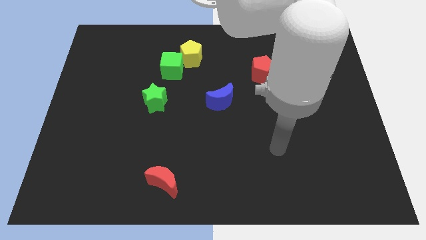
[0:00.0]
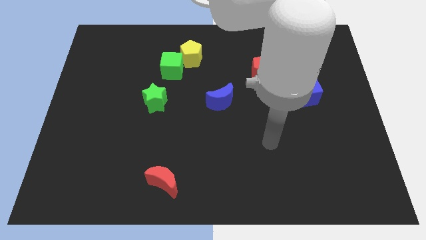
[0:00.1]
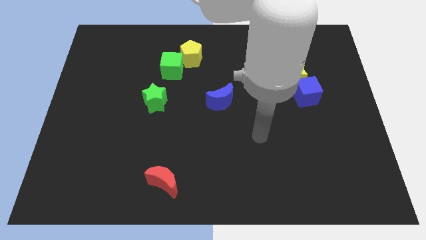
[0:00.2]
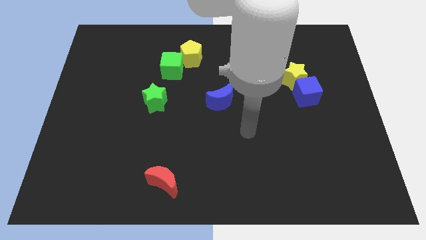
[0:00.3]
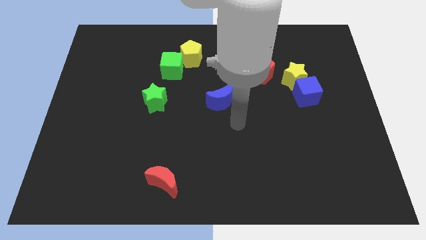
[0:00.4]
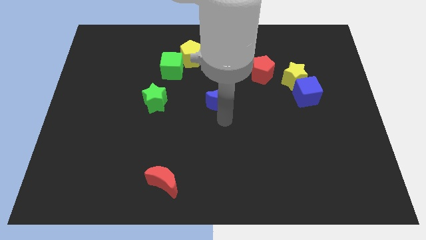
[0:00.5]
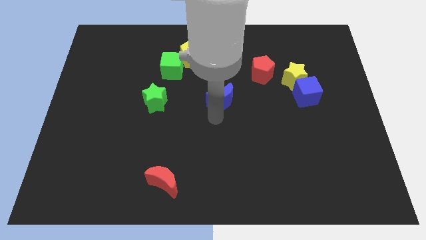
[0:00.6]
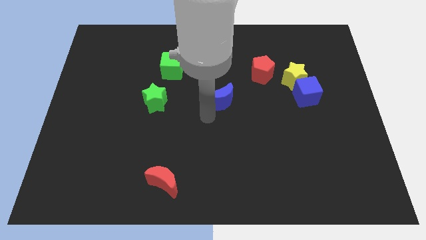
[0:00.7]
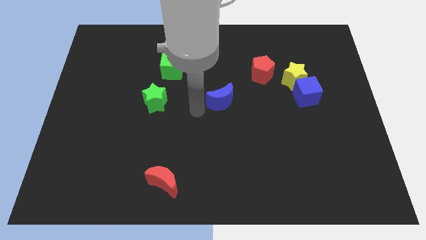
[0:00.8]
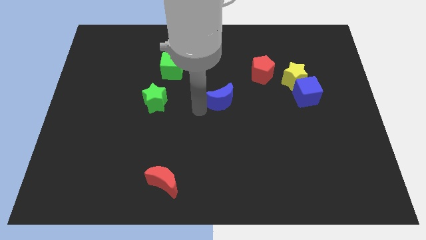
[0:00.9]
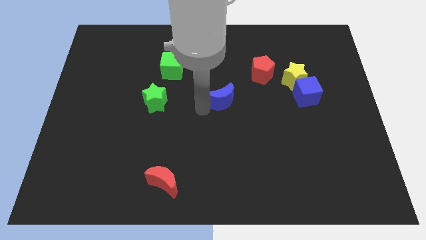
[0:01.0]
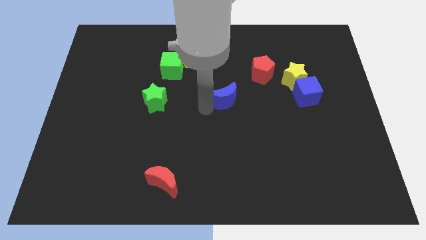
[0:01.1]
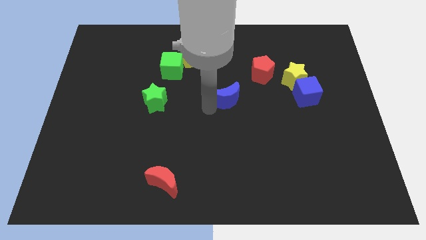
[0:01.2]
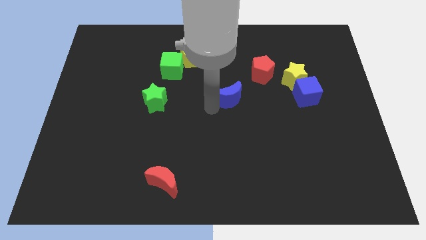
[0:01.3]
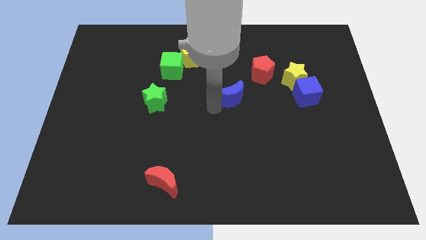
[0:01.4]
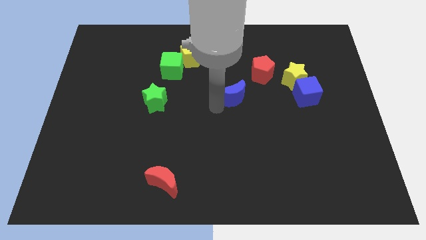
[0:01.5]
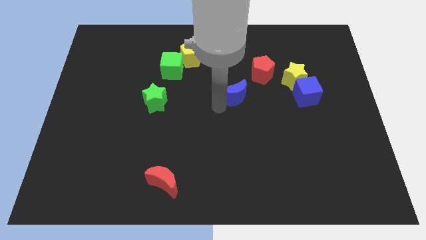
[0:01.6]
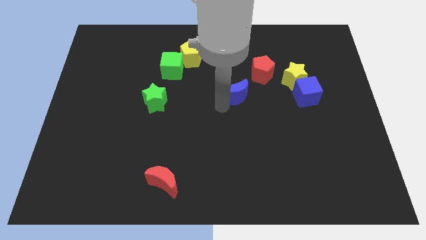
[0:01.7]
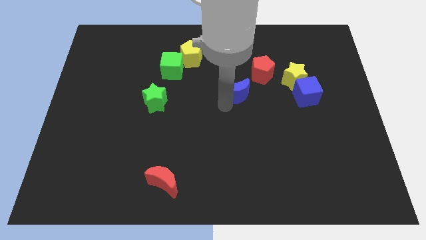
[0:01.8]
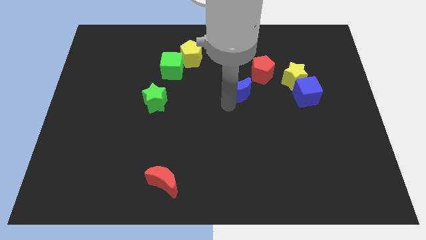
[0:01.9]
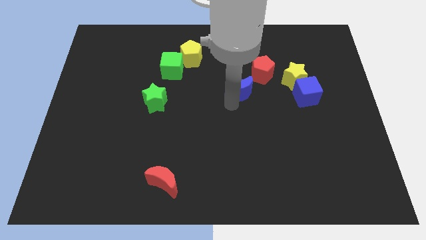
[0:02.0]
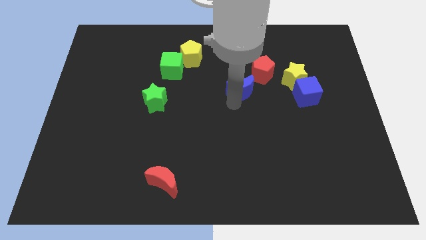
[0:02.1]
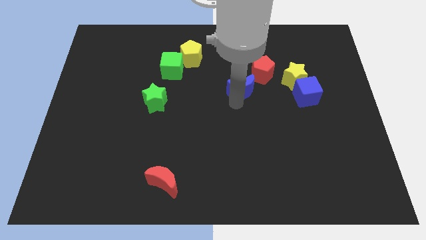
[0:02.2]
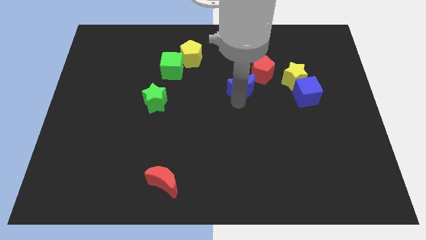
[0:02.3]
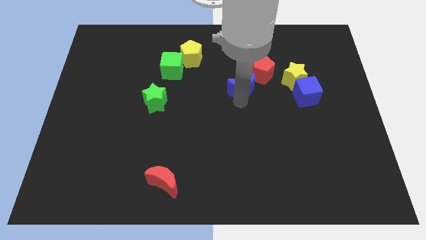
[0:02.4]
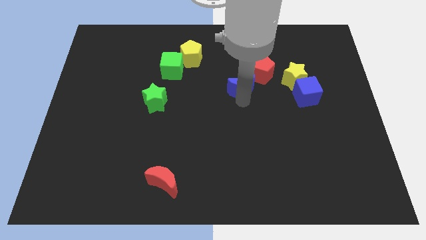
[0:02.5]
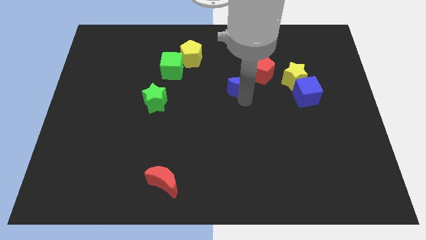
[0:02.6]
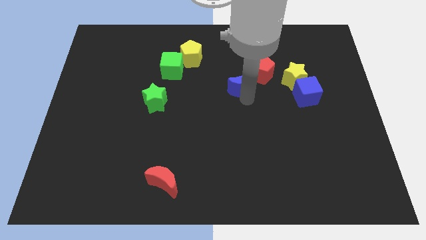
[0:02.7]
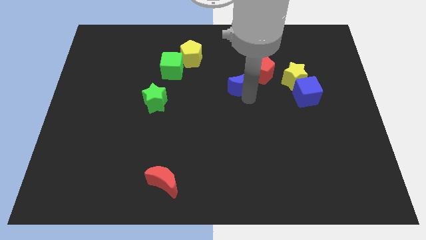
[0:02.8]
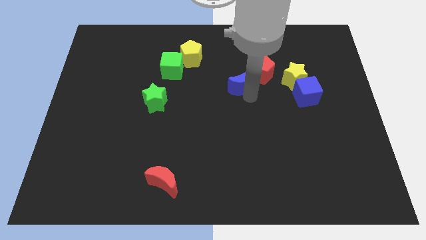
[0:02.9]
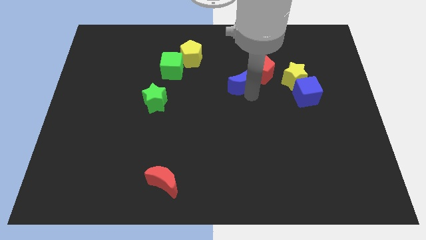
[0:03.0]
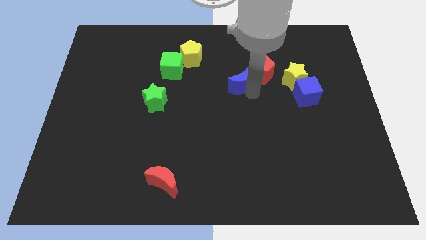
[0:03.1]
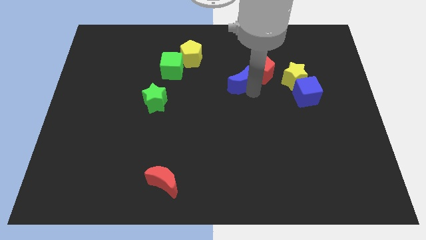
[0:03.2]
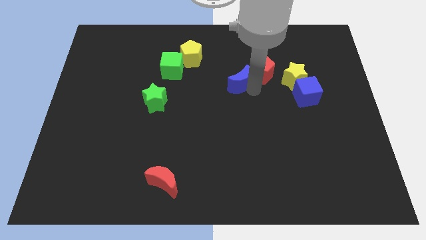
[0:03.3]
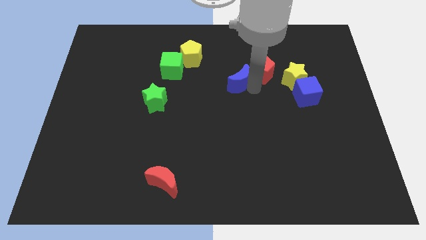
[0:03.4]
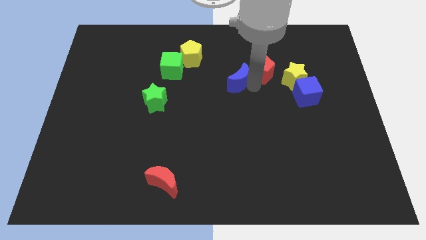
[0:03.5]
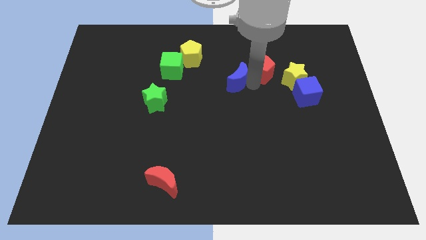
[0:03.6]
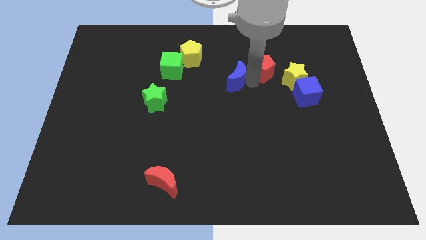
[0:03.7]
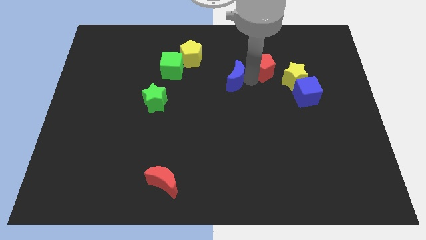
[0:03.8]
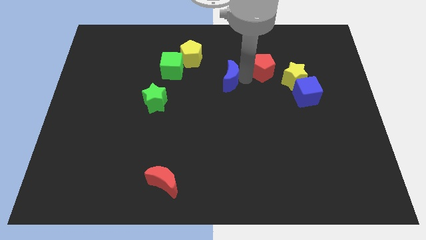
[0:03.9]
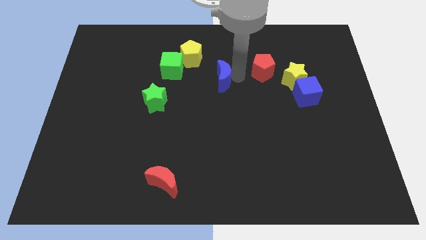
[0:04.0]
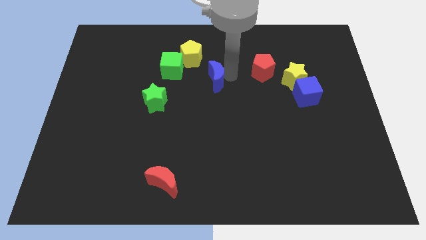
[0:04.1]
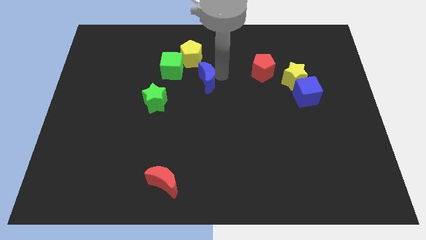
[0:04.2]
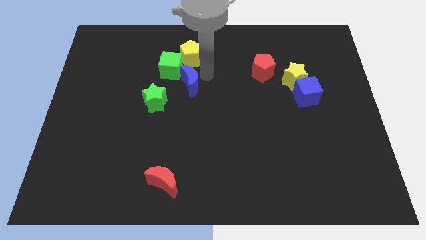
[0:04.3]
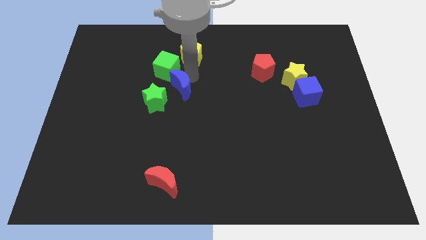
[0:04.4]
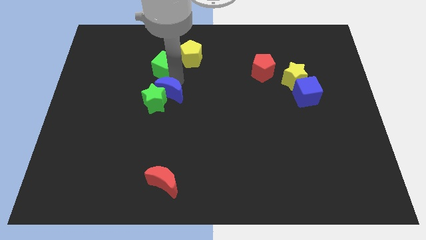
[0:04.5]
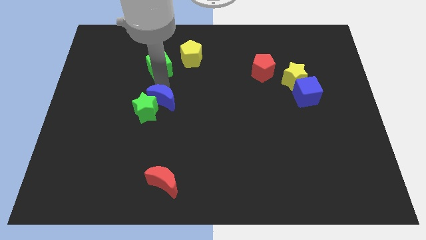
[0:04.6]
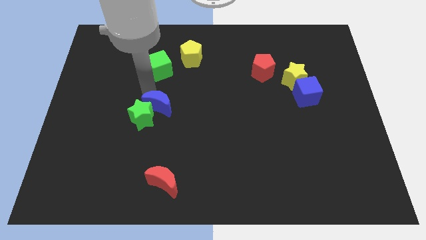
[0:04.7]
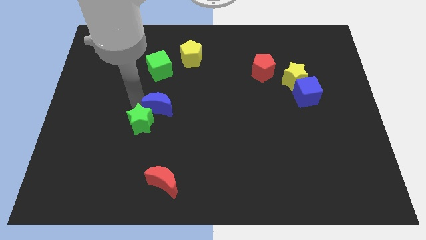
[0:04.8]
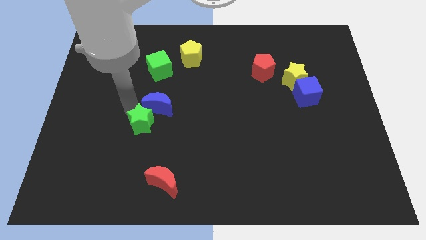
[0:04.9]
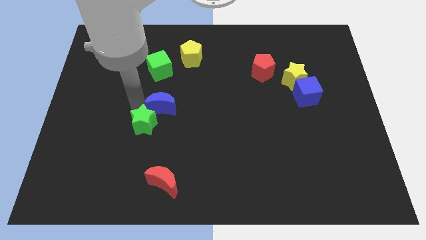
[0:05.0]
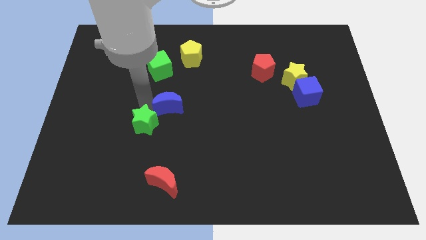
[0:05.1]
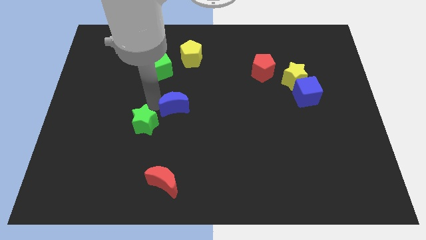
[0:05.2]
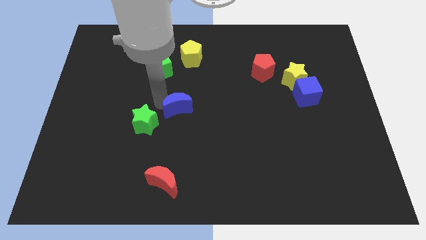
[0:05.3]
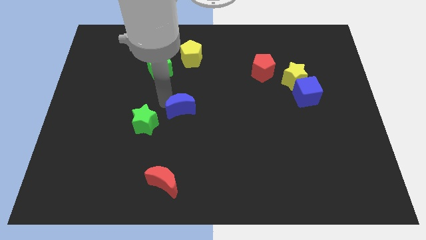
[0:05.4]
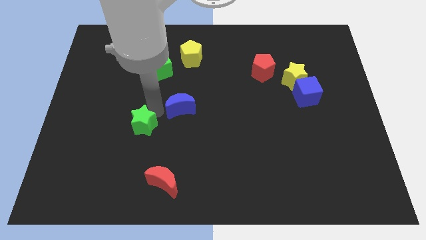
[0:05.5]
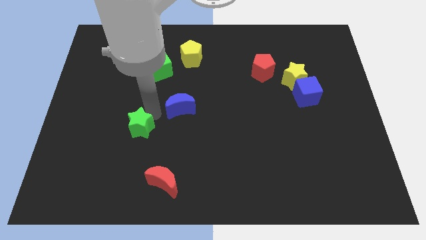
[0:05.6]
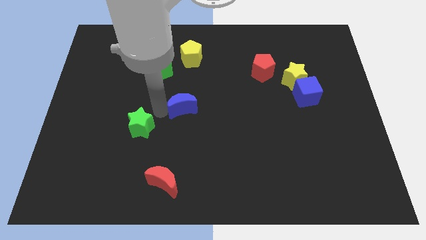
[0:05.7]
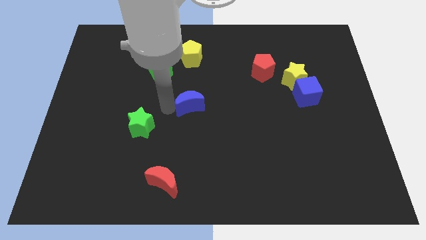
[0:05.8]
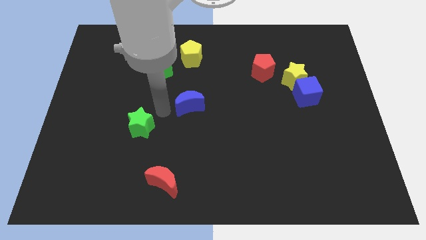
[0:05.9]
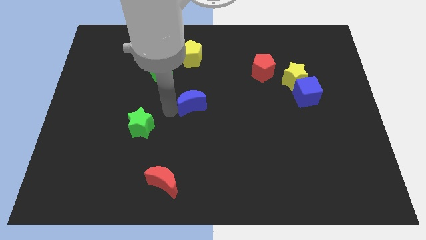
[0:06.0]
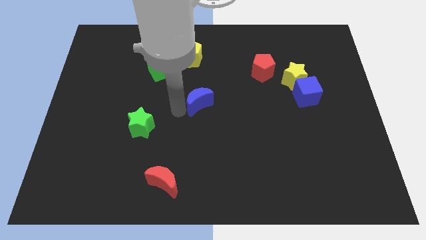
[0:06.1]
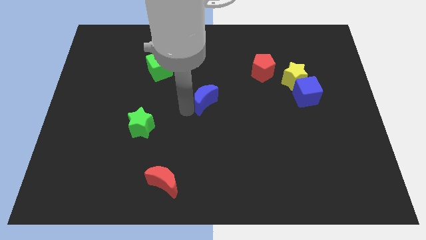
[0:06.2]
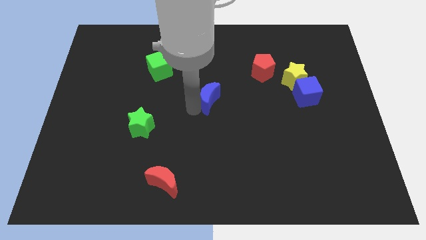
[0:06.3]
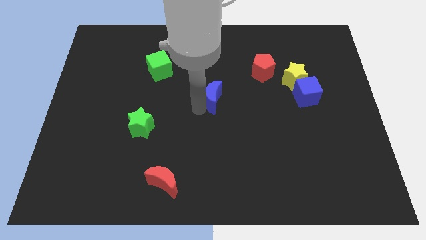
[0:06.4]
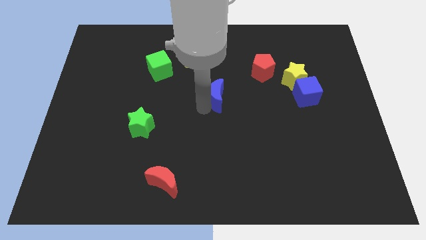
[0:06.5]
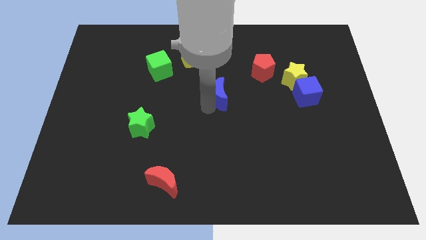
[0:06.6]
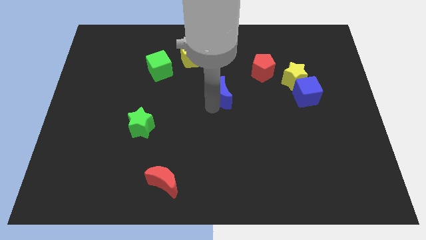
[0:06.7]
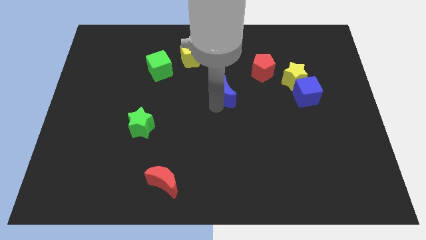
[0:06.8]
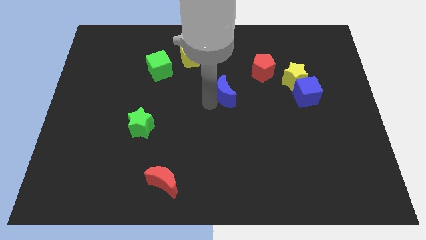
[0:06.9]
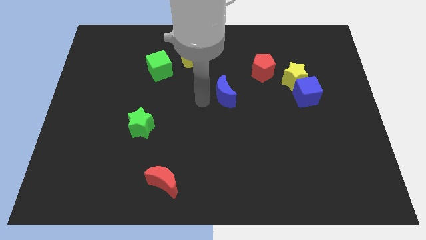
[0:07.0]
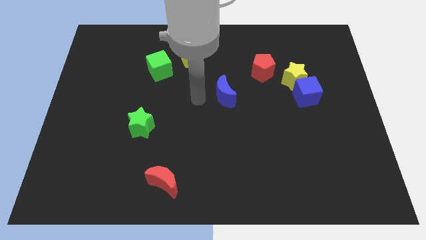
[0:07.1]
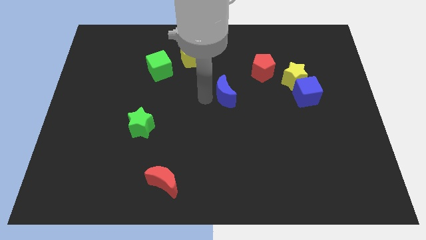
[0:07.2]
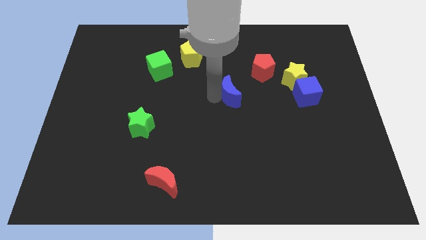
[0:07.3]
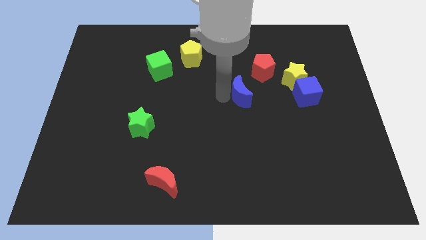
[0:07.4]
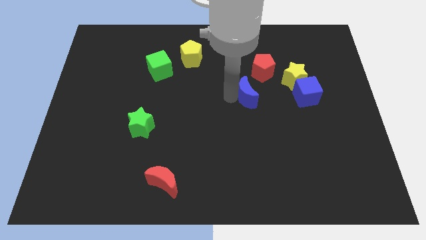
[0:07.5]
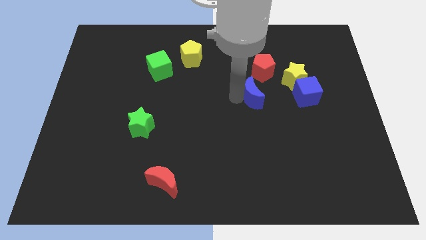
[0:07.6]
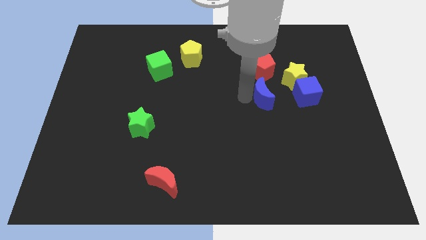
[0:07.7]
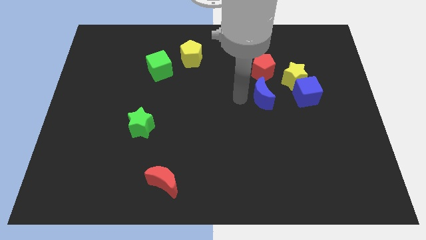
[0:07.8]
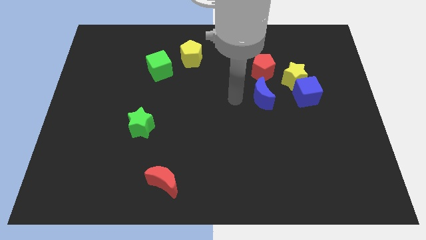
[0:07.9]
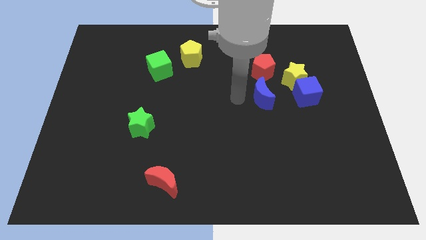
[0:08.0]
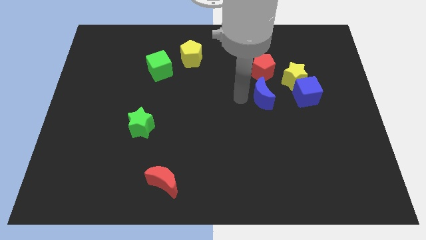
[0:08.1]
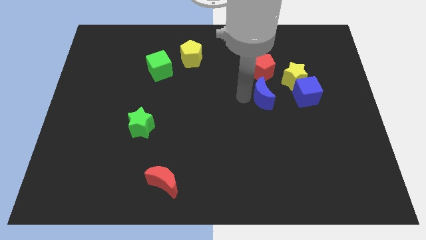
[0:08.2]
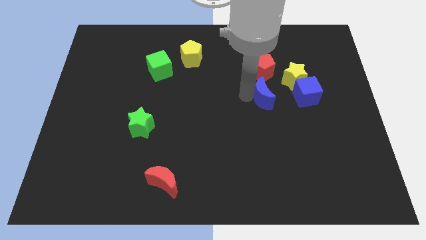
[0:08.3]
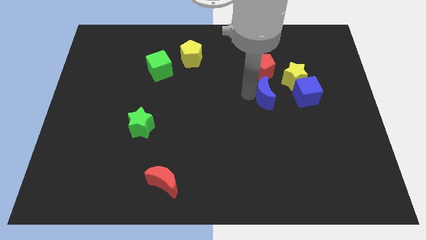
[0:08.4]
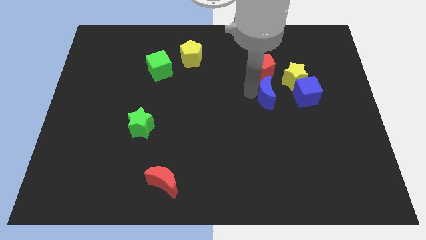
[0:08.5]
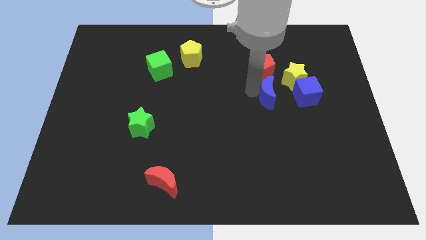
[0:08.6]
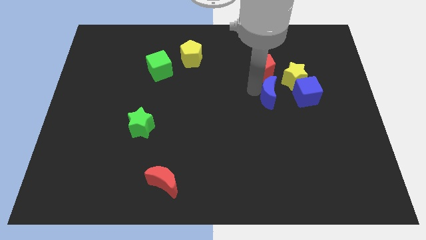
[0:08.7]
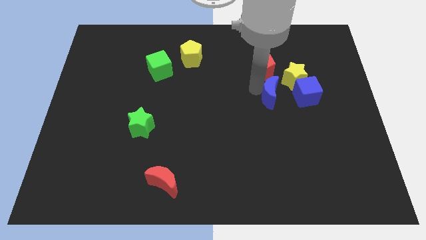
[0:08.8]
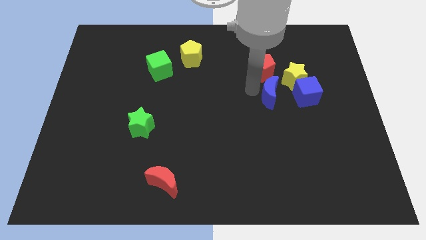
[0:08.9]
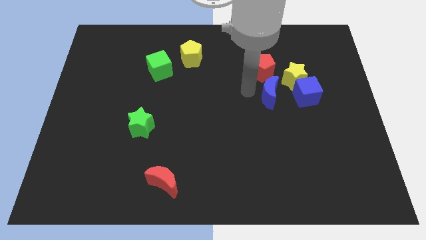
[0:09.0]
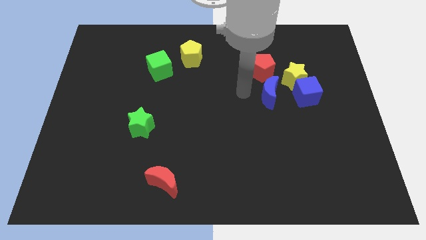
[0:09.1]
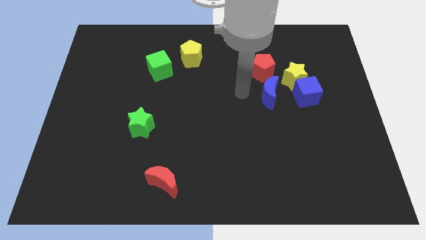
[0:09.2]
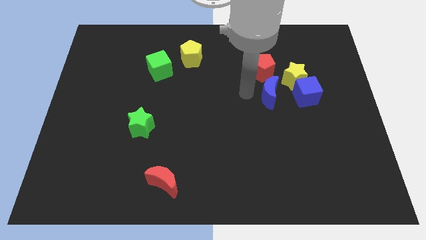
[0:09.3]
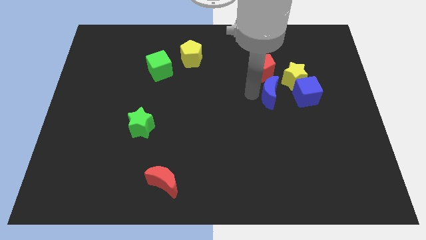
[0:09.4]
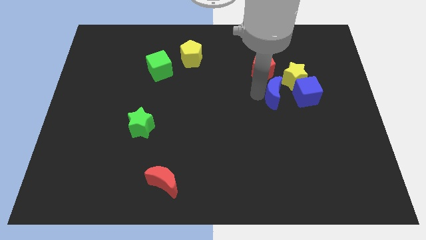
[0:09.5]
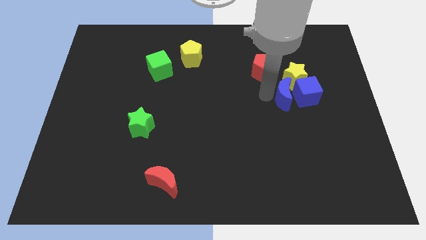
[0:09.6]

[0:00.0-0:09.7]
put the blue moon next to the blue cube
